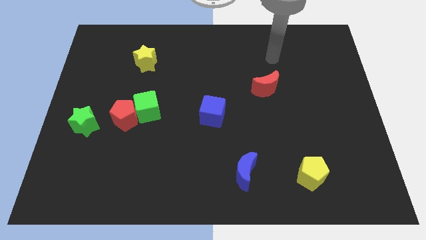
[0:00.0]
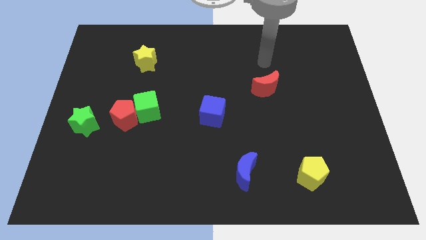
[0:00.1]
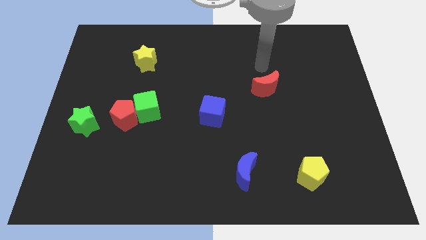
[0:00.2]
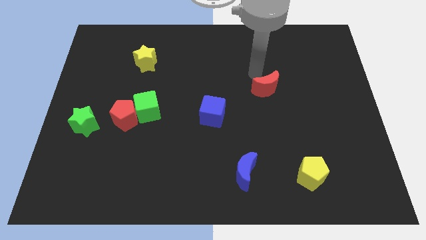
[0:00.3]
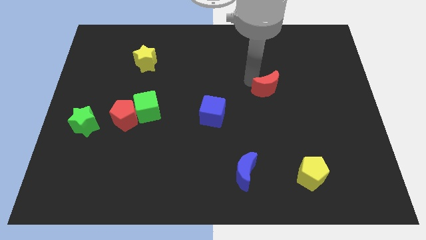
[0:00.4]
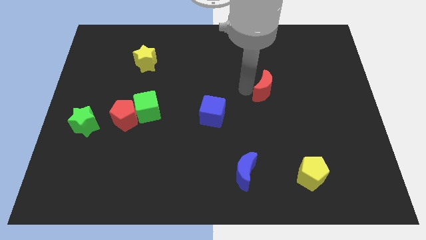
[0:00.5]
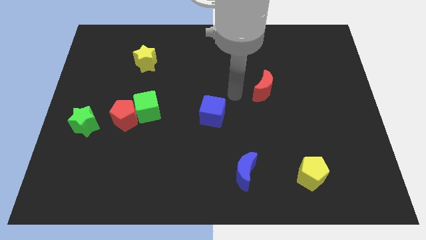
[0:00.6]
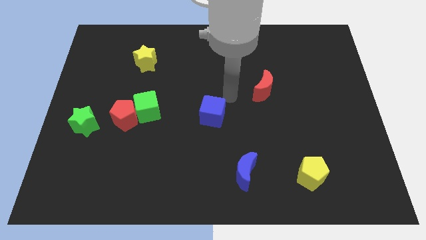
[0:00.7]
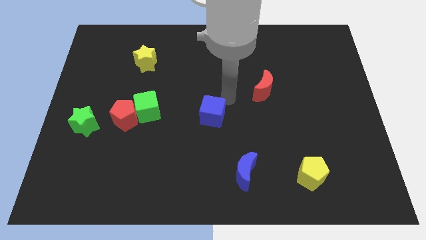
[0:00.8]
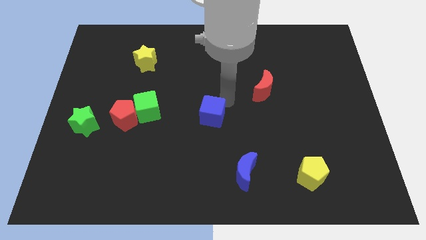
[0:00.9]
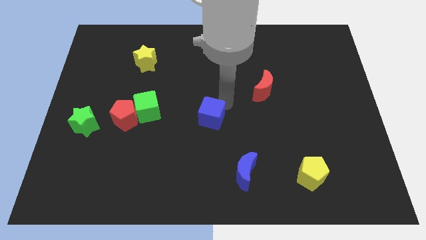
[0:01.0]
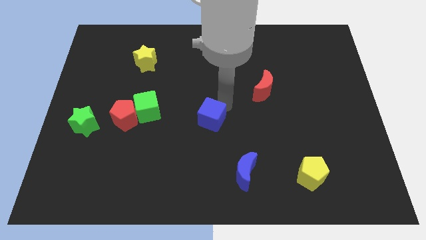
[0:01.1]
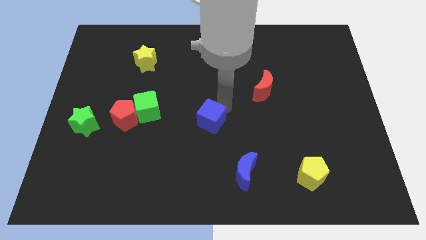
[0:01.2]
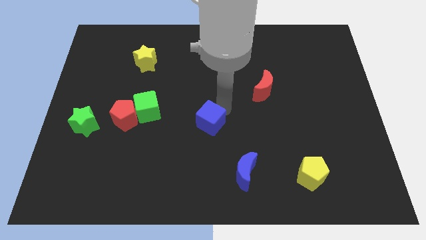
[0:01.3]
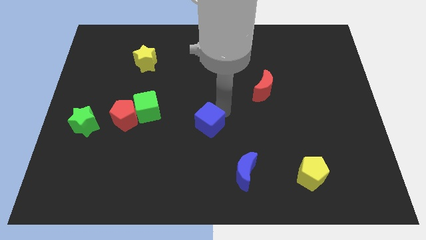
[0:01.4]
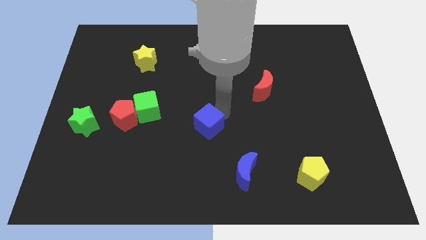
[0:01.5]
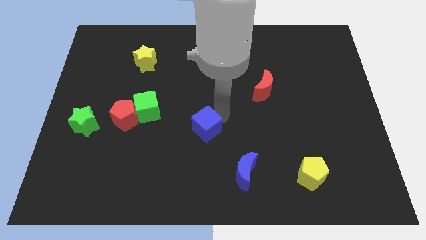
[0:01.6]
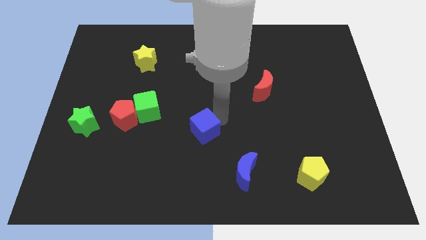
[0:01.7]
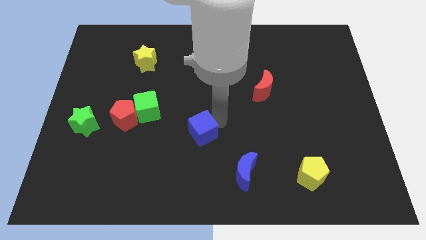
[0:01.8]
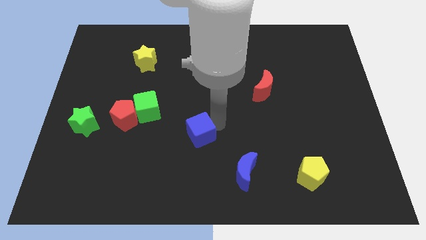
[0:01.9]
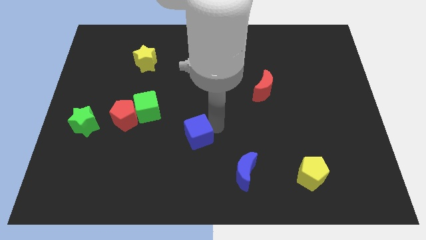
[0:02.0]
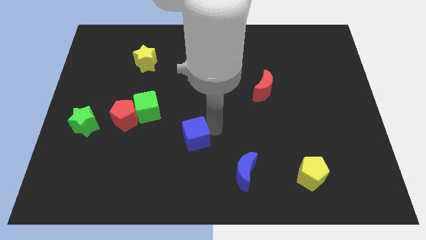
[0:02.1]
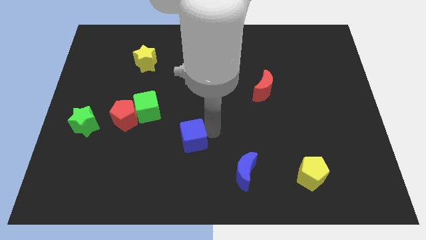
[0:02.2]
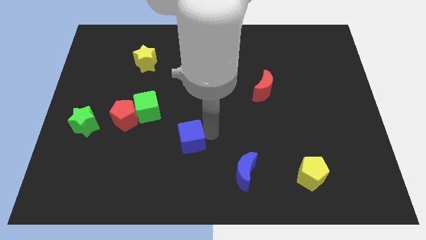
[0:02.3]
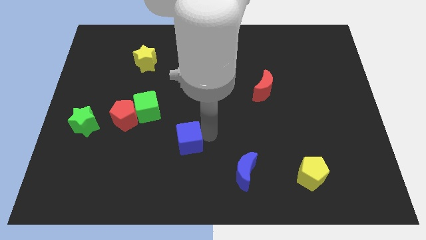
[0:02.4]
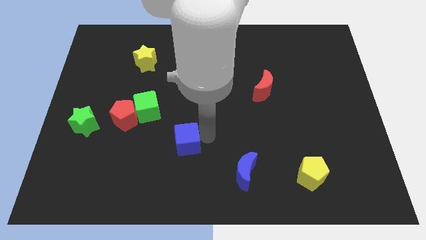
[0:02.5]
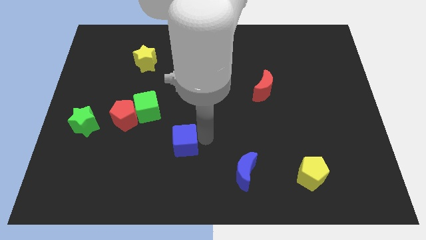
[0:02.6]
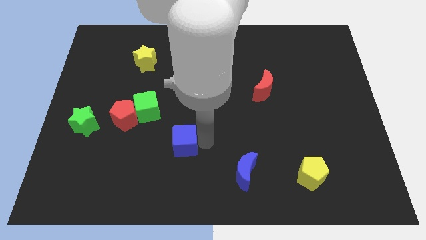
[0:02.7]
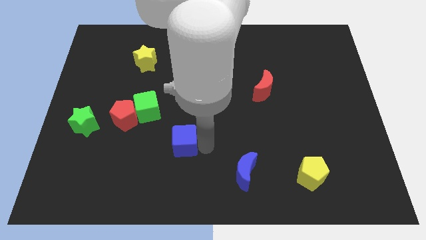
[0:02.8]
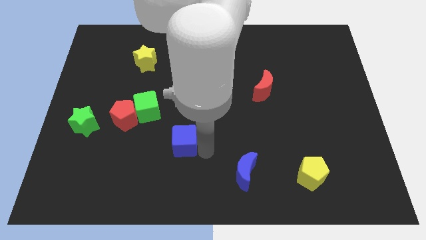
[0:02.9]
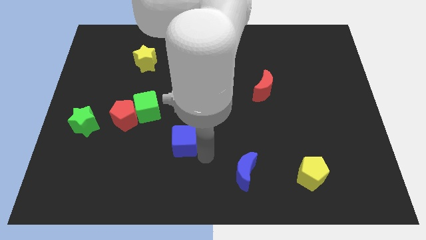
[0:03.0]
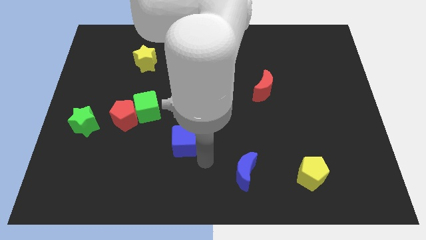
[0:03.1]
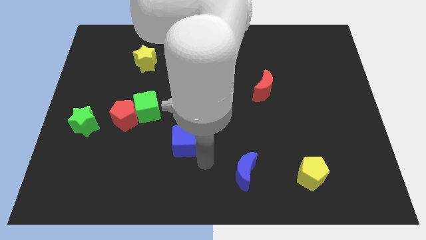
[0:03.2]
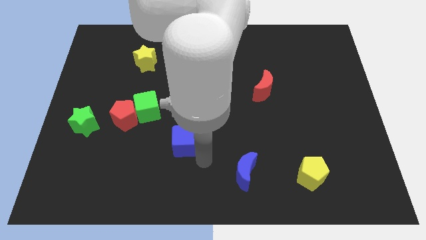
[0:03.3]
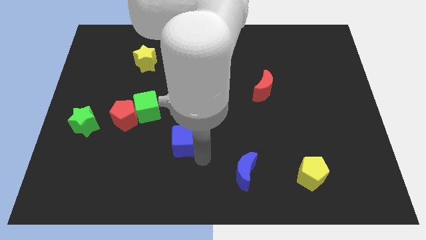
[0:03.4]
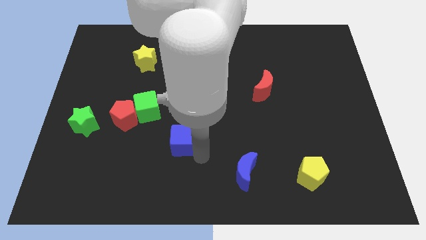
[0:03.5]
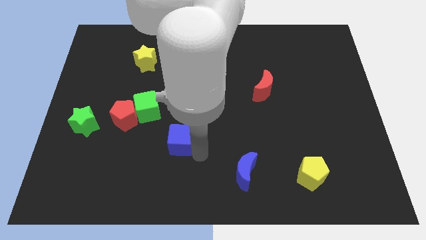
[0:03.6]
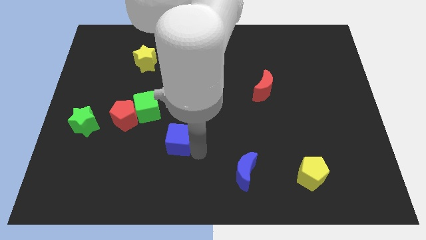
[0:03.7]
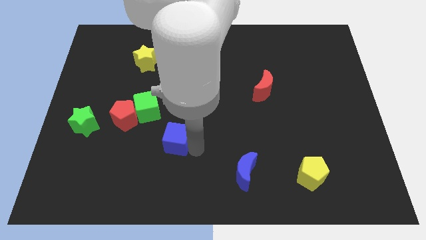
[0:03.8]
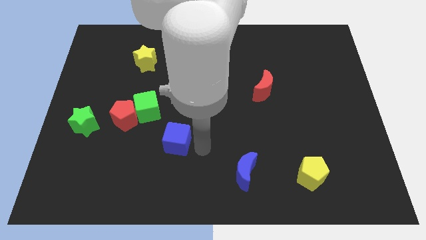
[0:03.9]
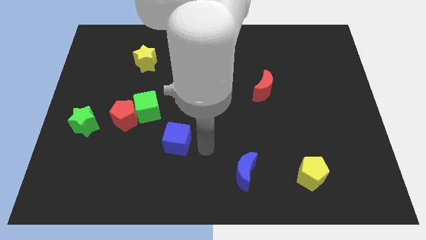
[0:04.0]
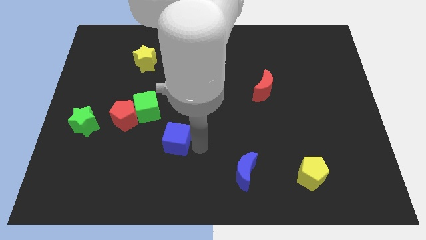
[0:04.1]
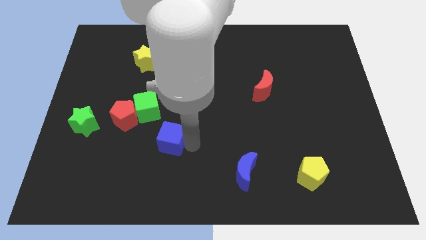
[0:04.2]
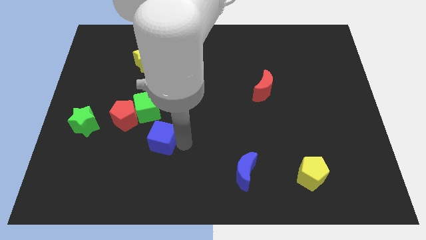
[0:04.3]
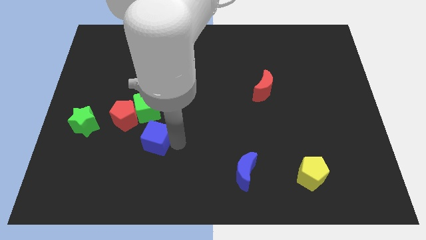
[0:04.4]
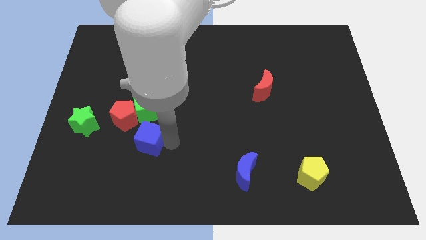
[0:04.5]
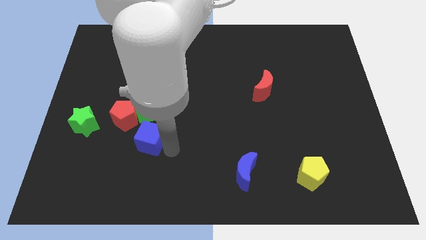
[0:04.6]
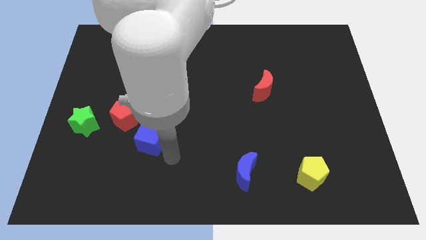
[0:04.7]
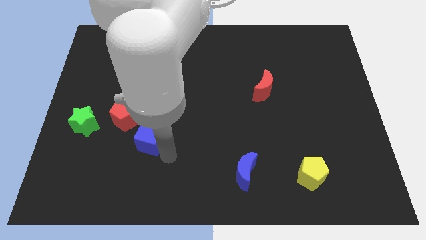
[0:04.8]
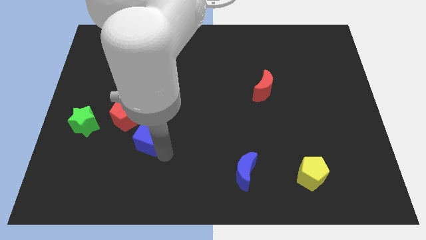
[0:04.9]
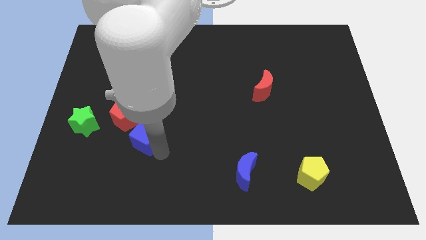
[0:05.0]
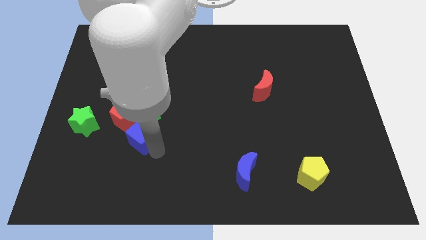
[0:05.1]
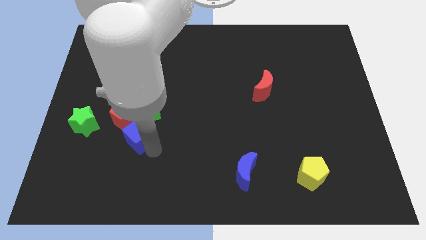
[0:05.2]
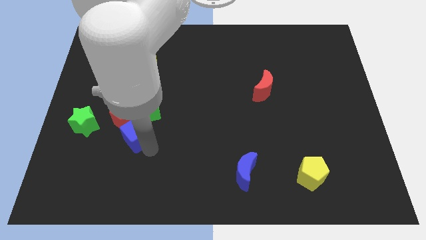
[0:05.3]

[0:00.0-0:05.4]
put the blue cube towards the red pentagon

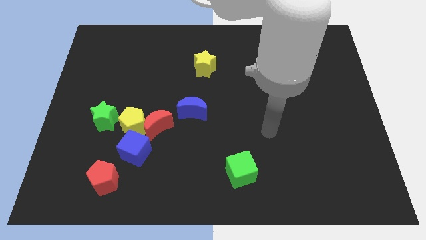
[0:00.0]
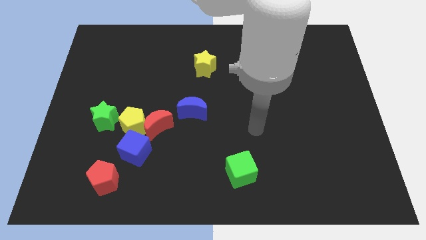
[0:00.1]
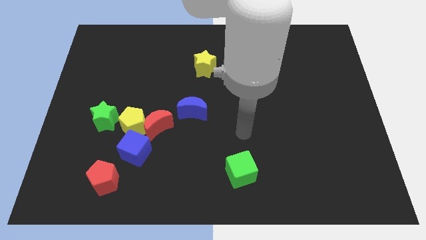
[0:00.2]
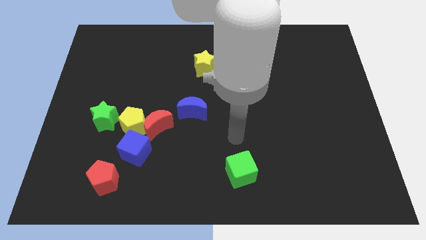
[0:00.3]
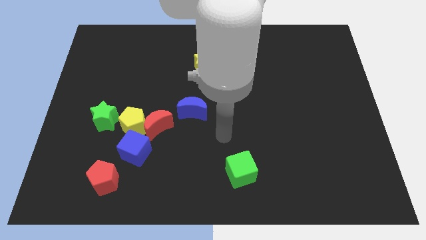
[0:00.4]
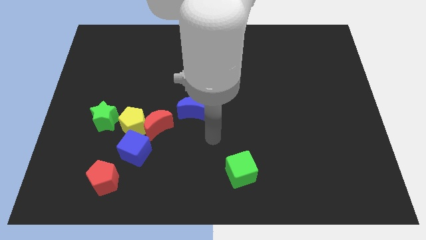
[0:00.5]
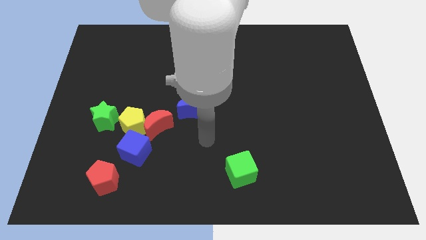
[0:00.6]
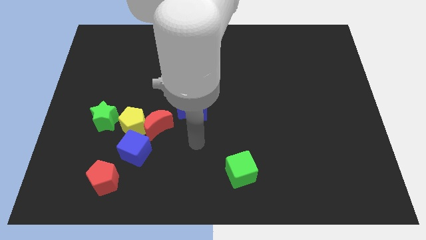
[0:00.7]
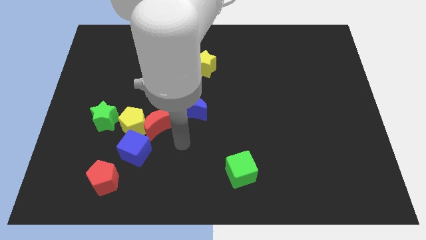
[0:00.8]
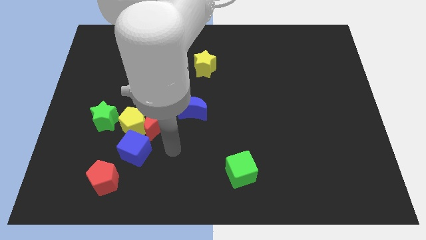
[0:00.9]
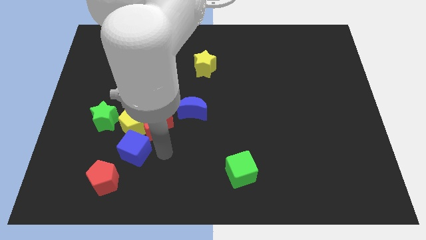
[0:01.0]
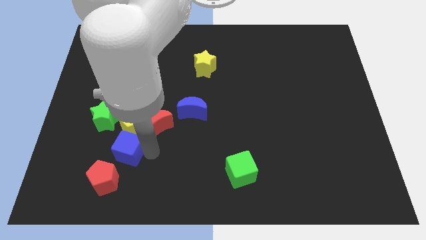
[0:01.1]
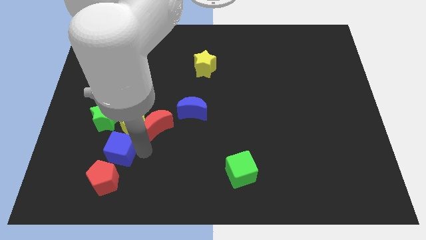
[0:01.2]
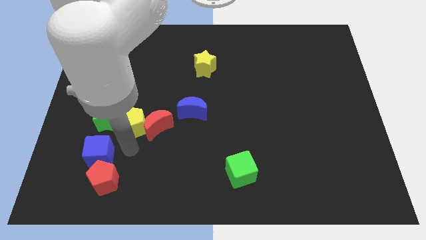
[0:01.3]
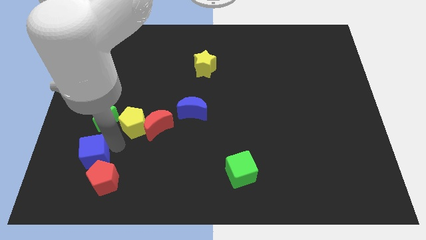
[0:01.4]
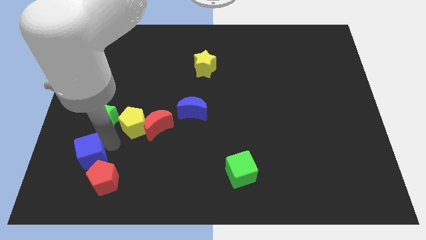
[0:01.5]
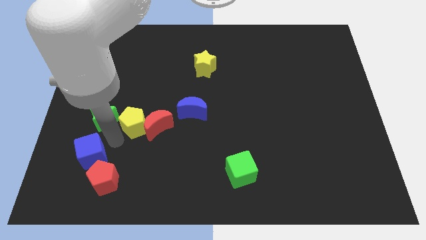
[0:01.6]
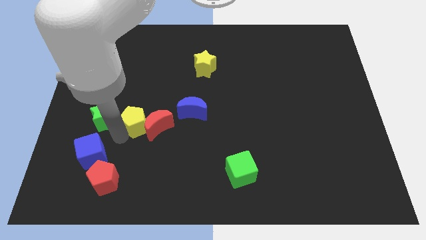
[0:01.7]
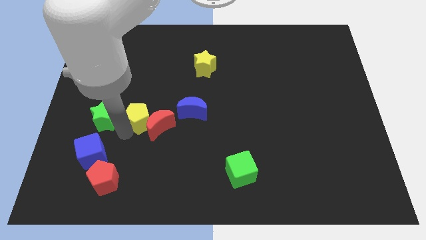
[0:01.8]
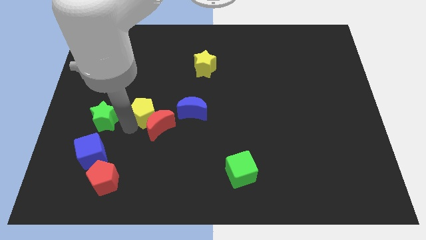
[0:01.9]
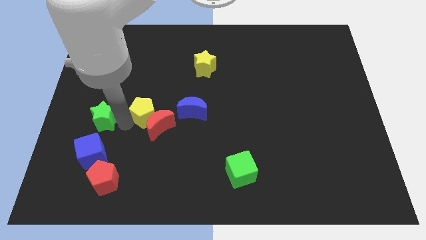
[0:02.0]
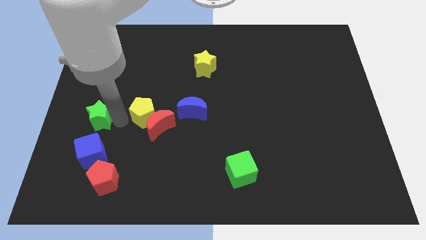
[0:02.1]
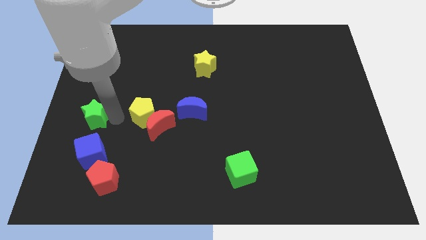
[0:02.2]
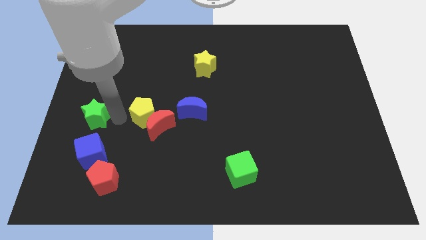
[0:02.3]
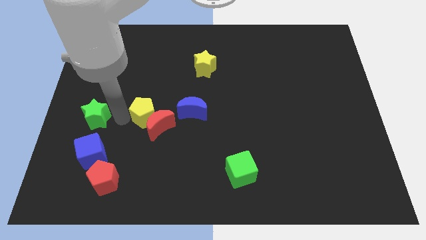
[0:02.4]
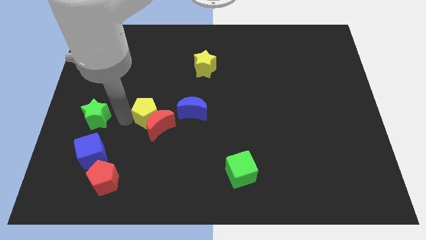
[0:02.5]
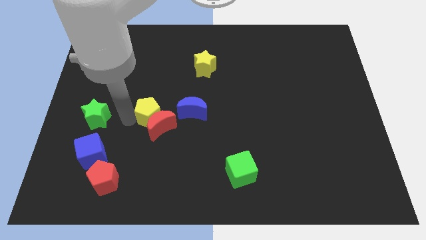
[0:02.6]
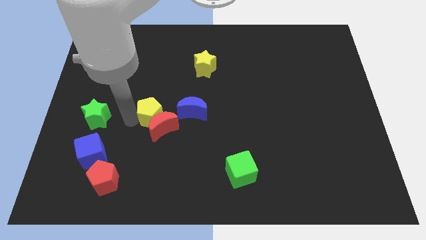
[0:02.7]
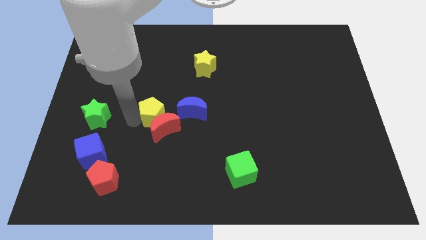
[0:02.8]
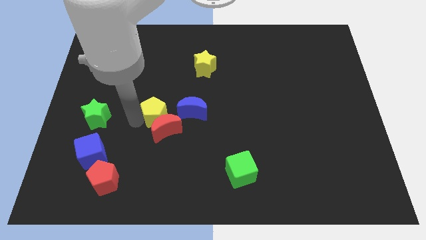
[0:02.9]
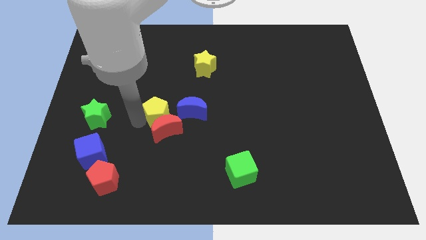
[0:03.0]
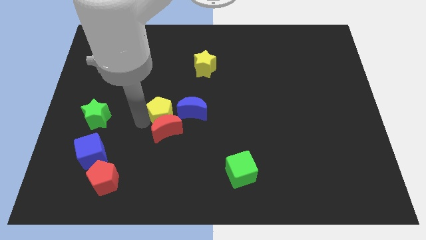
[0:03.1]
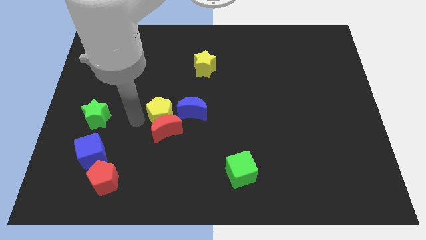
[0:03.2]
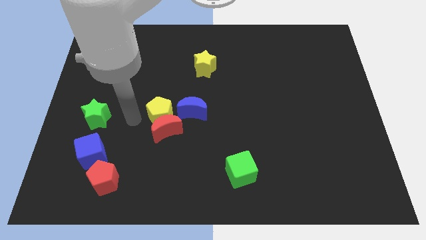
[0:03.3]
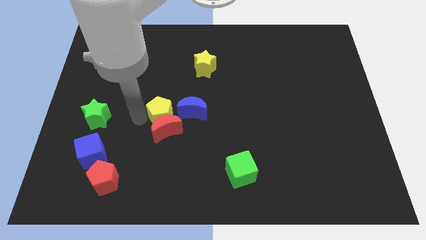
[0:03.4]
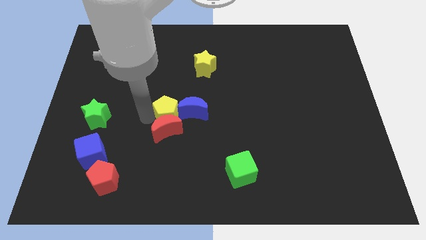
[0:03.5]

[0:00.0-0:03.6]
put the yellow pentagon next to the blue moon
